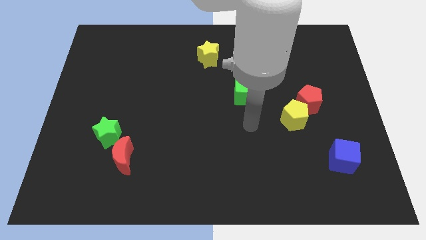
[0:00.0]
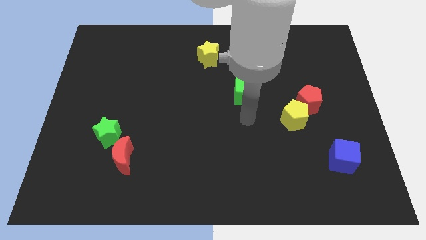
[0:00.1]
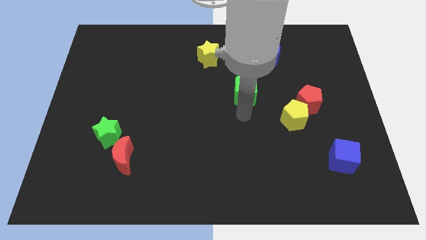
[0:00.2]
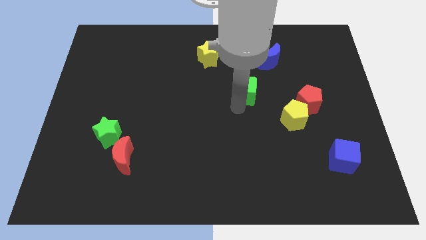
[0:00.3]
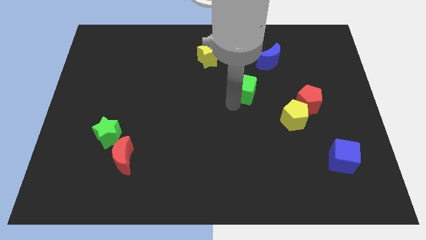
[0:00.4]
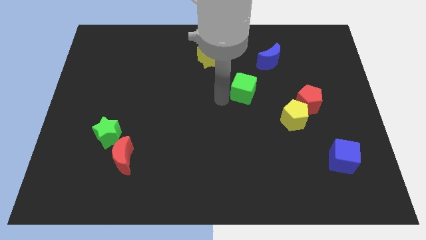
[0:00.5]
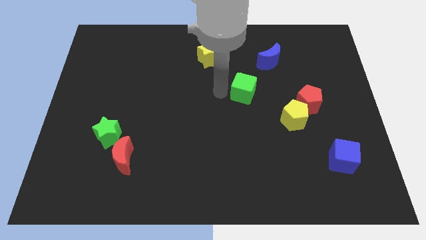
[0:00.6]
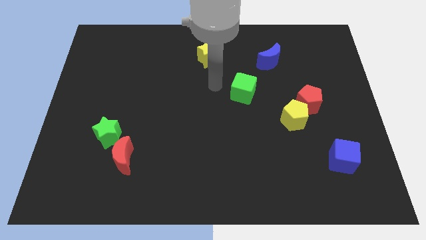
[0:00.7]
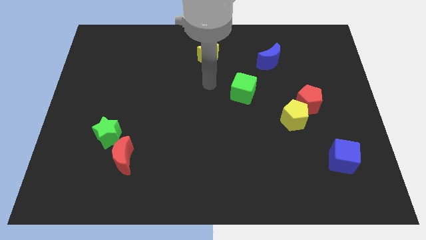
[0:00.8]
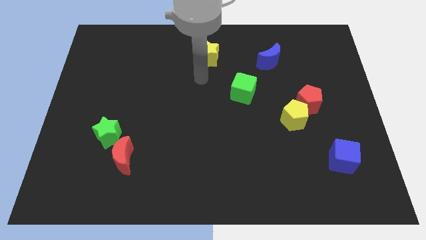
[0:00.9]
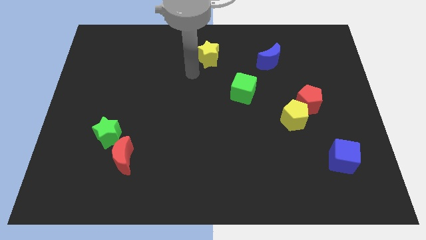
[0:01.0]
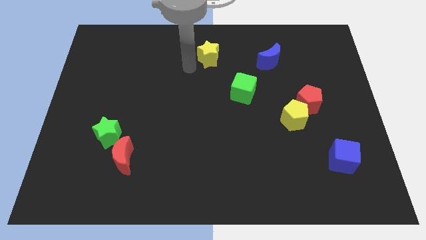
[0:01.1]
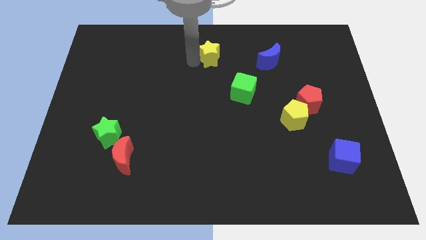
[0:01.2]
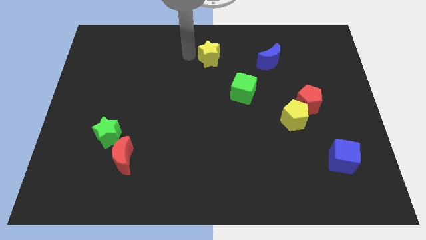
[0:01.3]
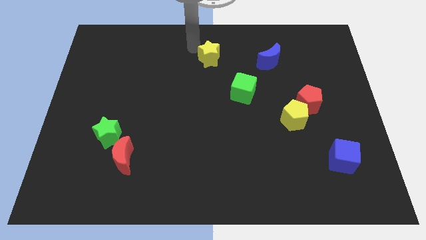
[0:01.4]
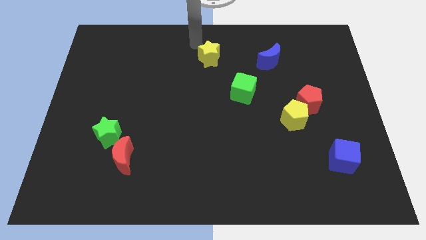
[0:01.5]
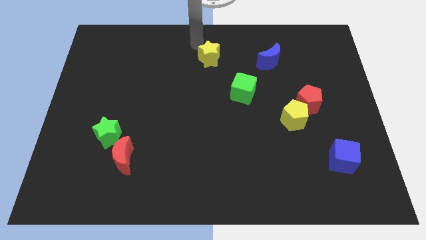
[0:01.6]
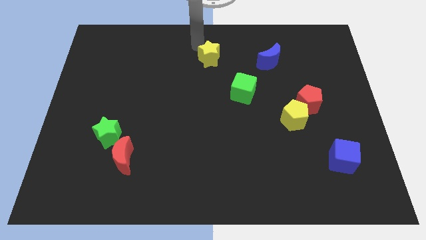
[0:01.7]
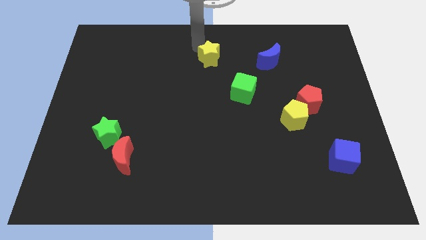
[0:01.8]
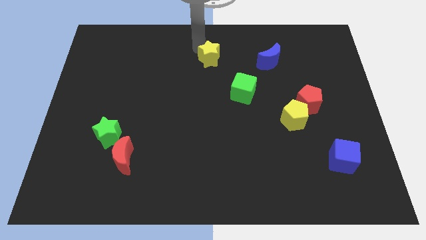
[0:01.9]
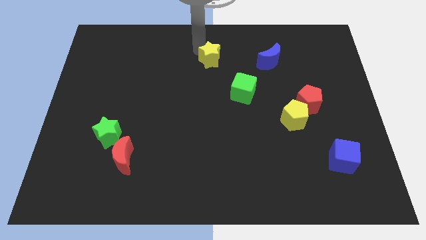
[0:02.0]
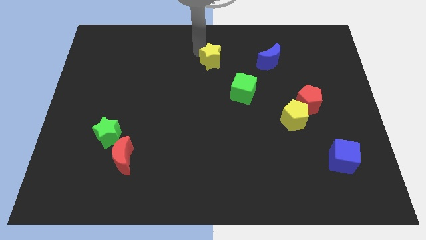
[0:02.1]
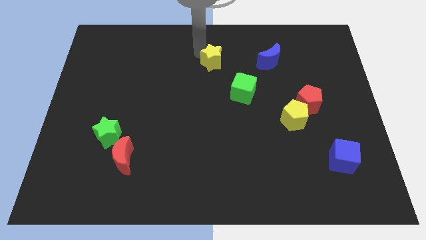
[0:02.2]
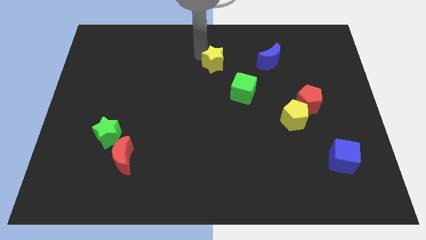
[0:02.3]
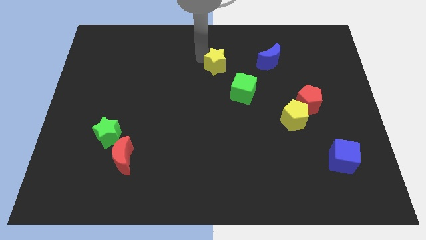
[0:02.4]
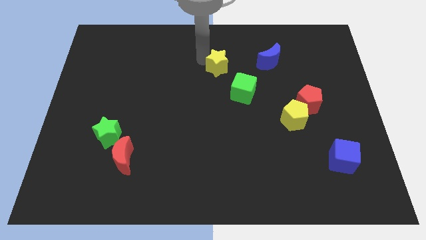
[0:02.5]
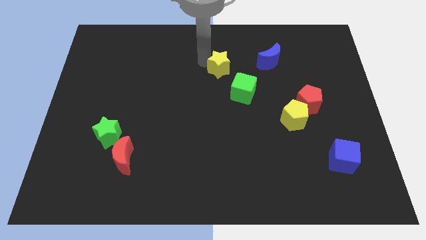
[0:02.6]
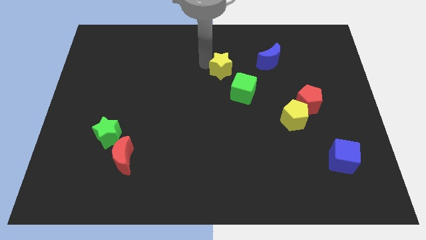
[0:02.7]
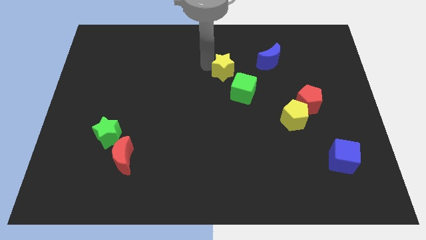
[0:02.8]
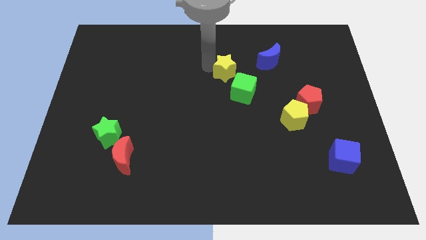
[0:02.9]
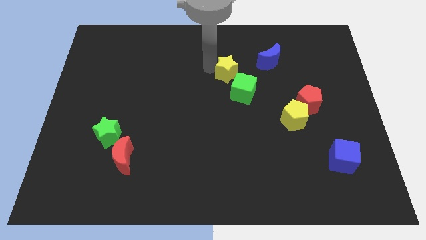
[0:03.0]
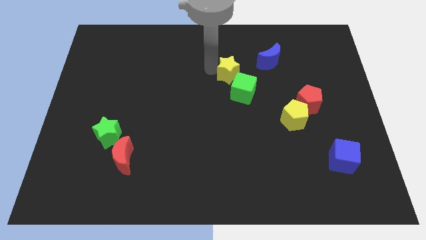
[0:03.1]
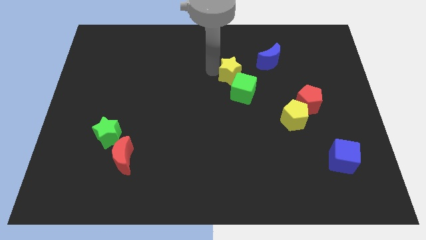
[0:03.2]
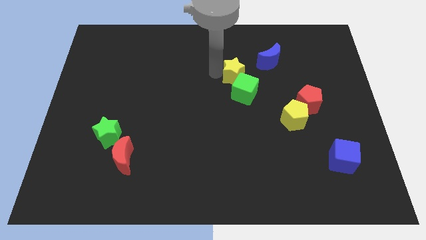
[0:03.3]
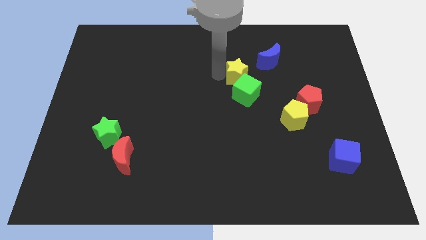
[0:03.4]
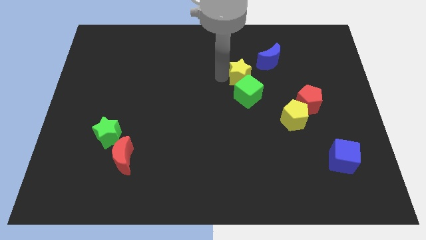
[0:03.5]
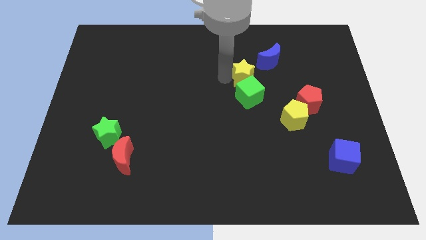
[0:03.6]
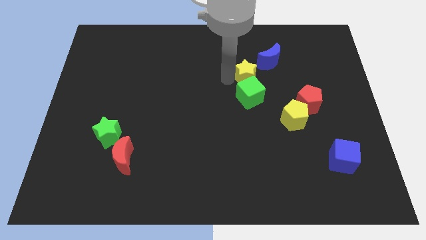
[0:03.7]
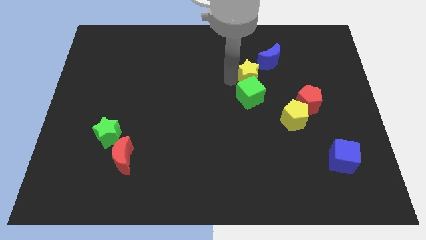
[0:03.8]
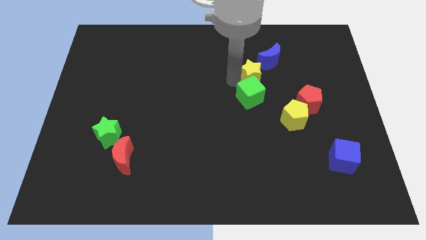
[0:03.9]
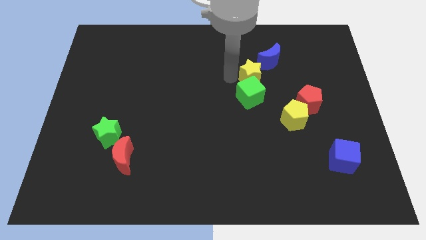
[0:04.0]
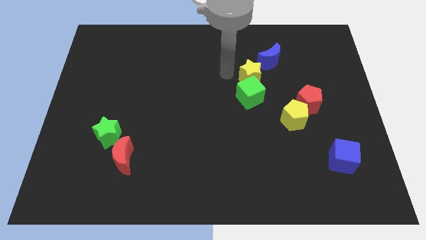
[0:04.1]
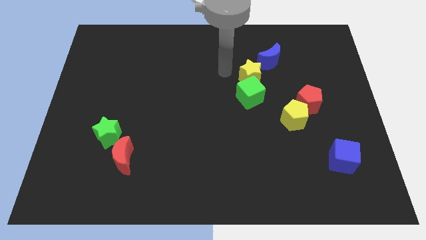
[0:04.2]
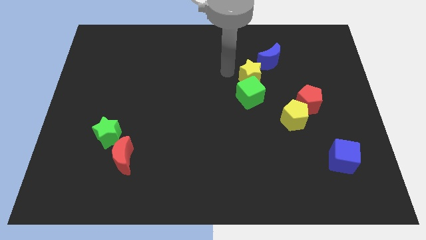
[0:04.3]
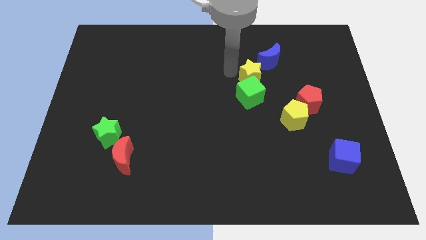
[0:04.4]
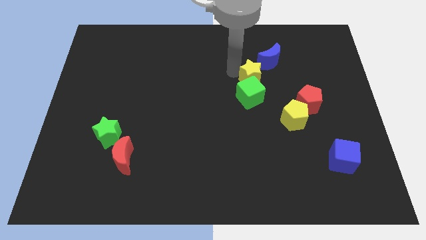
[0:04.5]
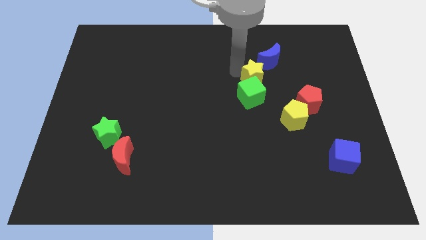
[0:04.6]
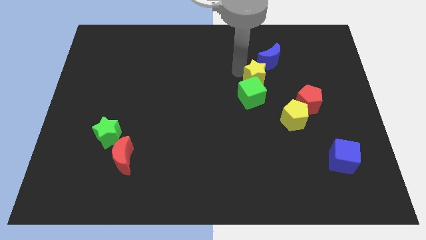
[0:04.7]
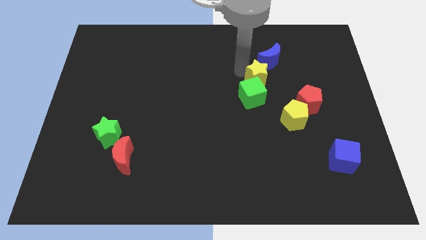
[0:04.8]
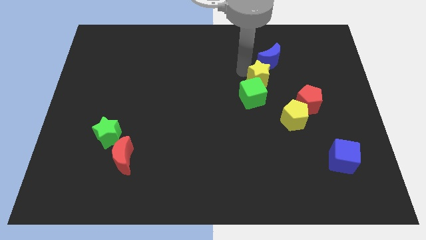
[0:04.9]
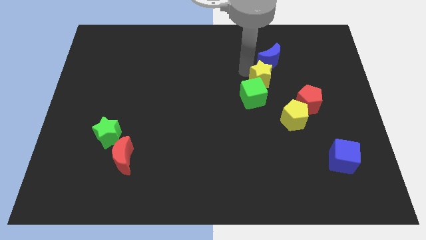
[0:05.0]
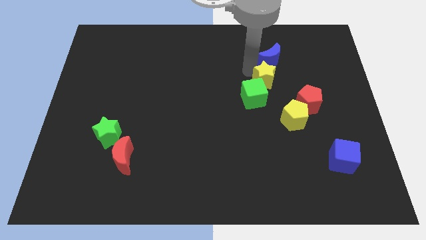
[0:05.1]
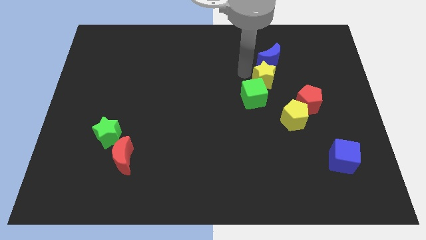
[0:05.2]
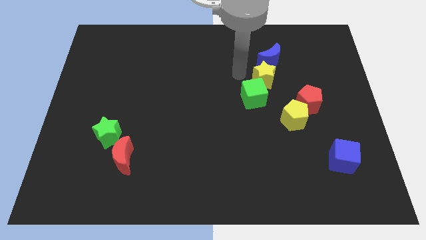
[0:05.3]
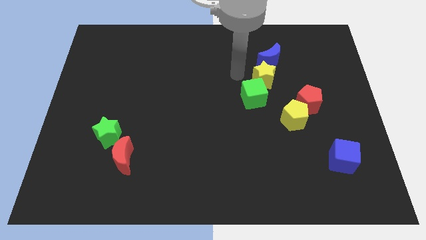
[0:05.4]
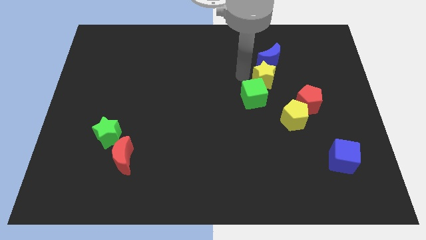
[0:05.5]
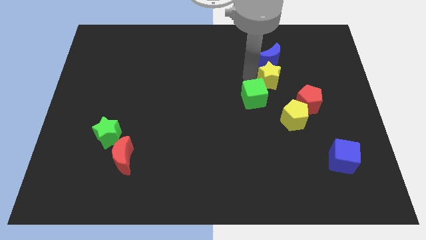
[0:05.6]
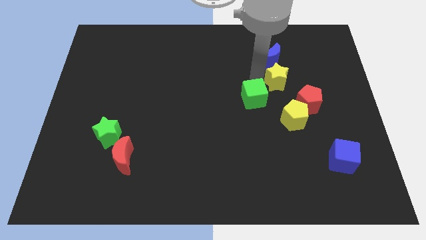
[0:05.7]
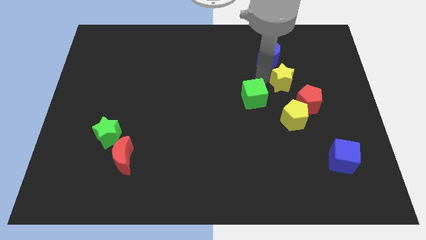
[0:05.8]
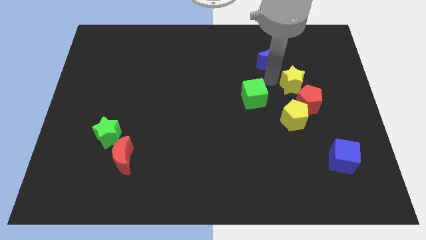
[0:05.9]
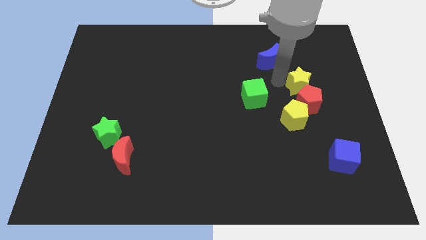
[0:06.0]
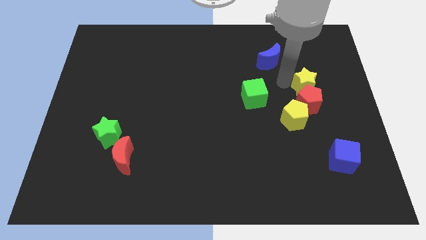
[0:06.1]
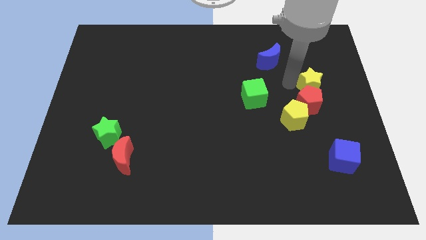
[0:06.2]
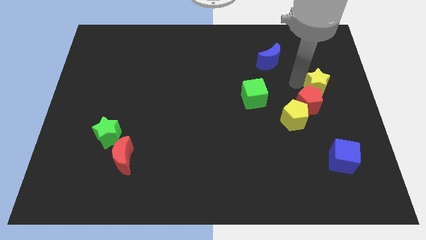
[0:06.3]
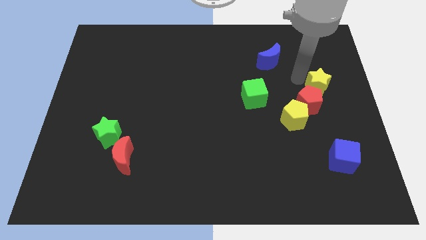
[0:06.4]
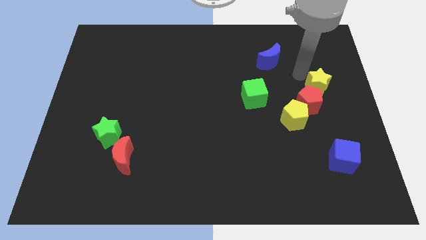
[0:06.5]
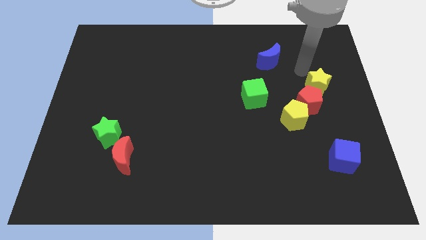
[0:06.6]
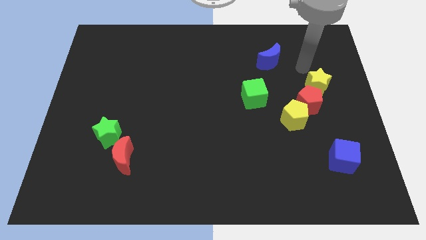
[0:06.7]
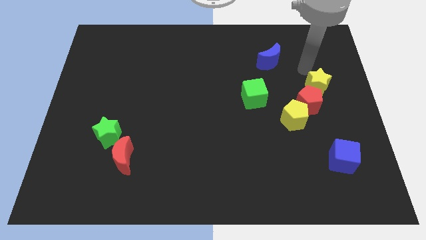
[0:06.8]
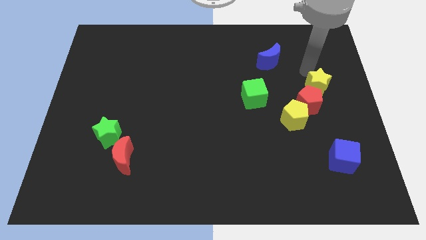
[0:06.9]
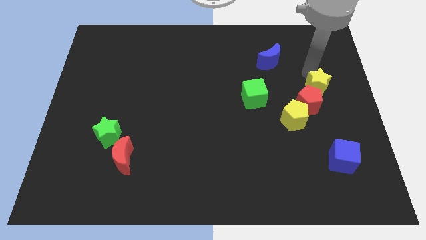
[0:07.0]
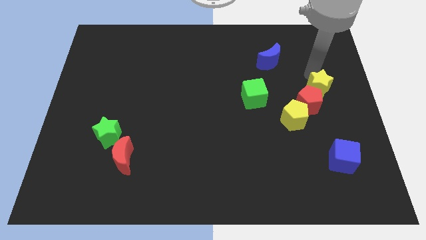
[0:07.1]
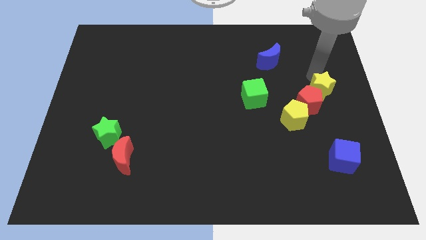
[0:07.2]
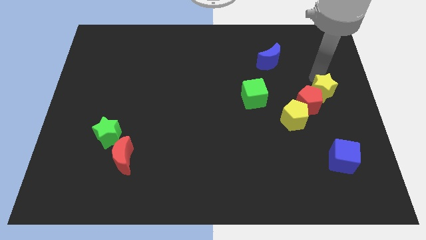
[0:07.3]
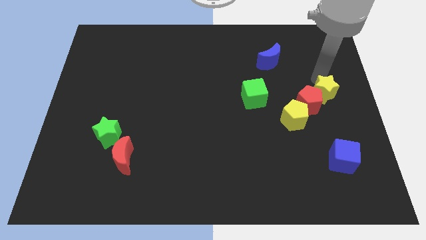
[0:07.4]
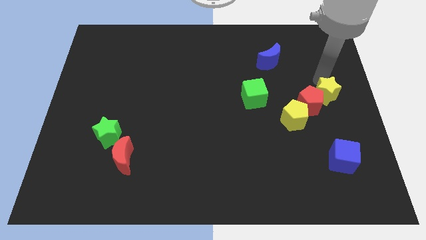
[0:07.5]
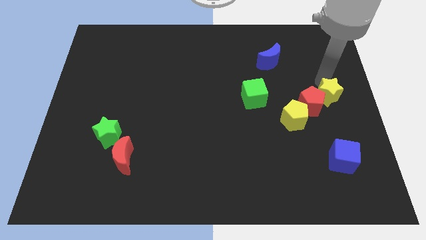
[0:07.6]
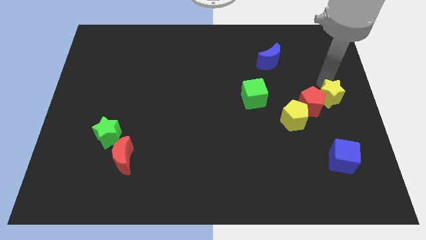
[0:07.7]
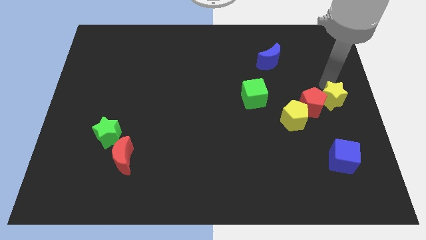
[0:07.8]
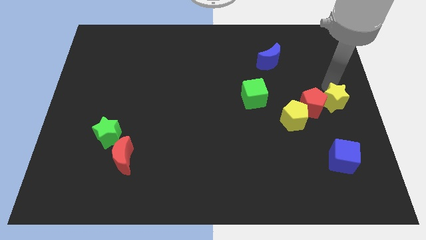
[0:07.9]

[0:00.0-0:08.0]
push the yellow star above the blue cube
